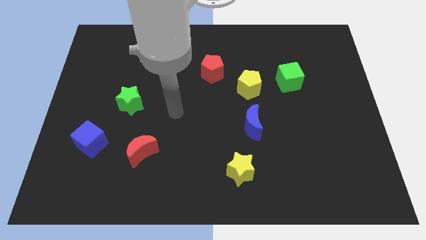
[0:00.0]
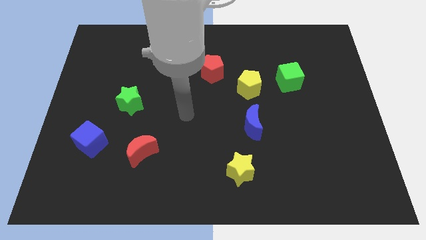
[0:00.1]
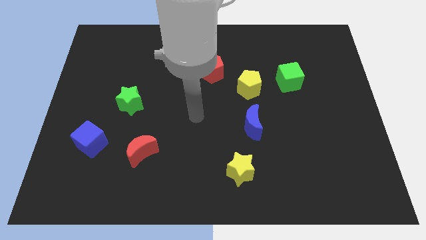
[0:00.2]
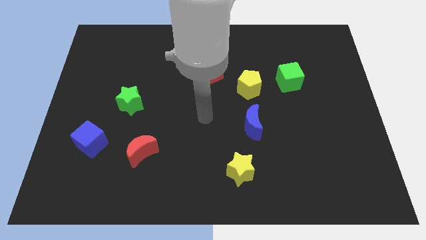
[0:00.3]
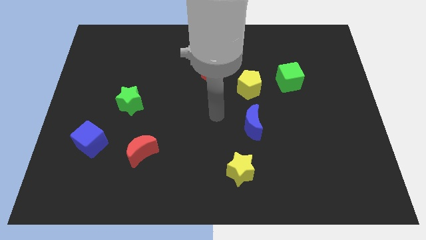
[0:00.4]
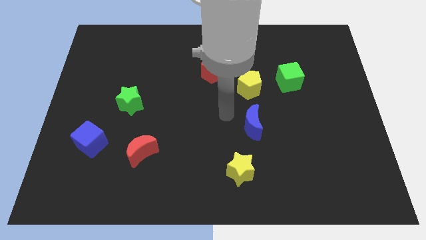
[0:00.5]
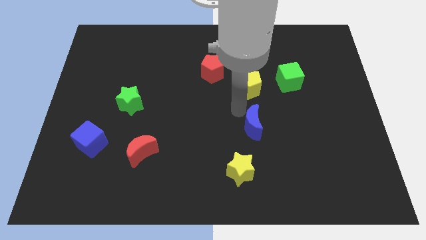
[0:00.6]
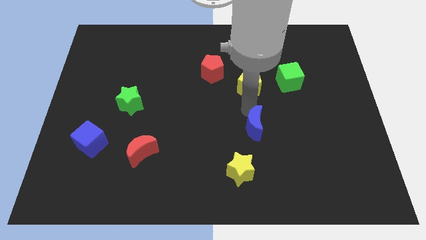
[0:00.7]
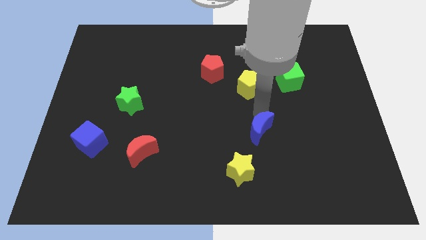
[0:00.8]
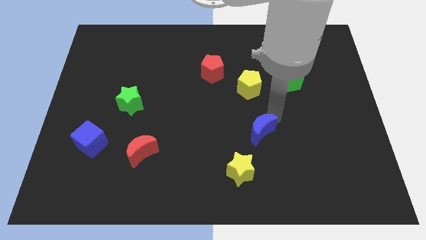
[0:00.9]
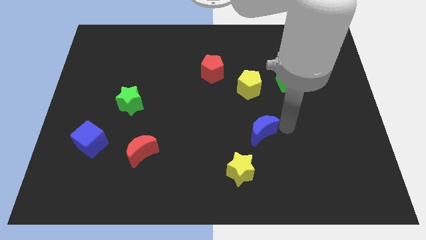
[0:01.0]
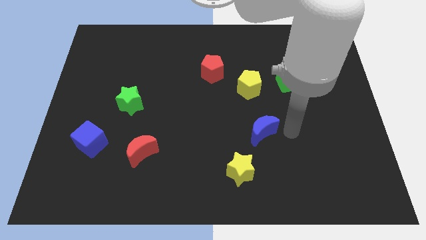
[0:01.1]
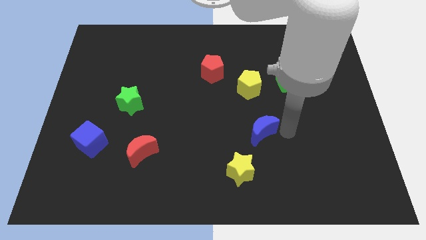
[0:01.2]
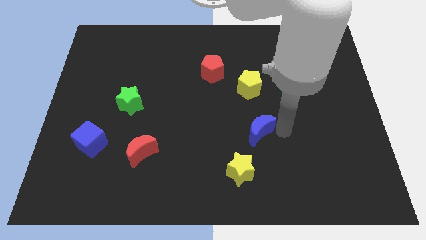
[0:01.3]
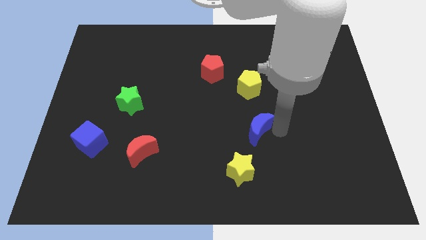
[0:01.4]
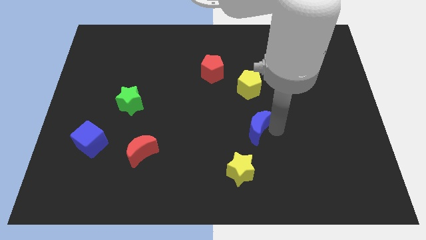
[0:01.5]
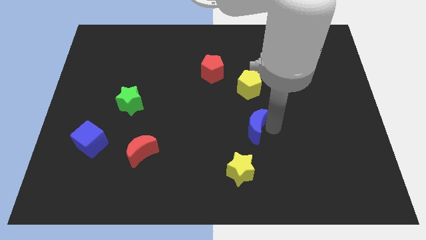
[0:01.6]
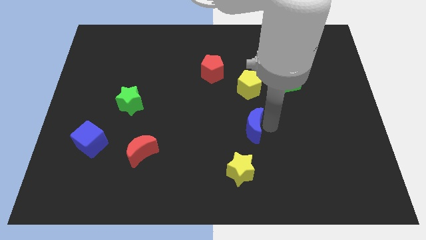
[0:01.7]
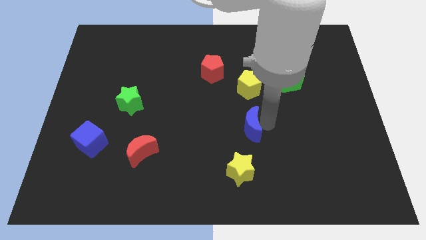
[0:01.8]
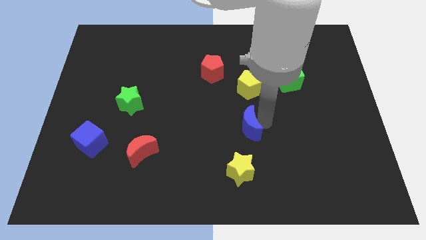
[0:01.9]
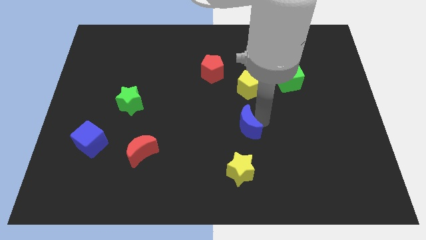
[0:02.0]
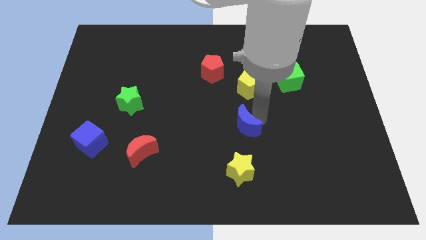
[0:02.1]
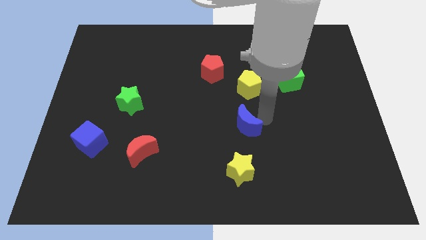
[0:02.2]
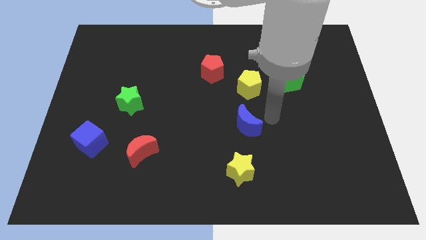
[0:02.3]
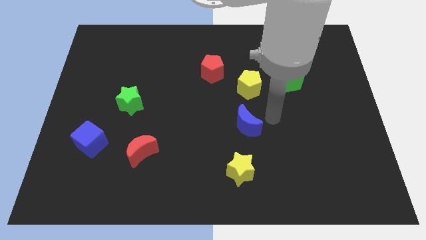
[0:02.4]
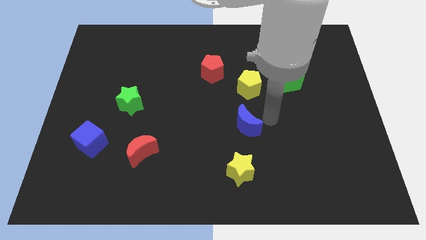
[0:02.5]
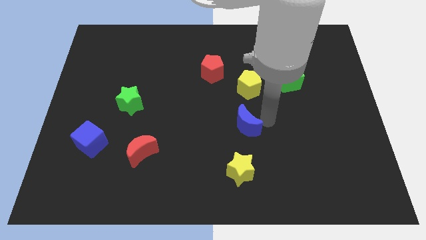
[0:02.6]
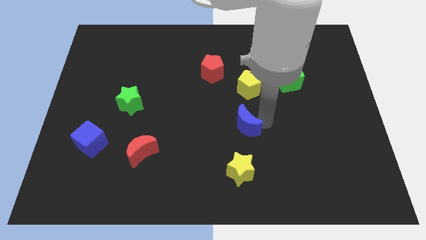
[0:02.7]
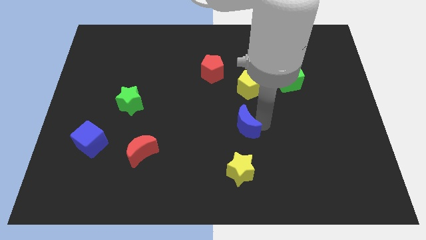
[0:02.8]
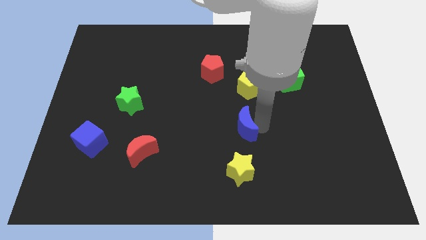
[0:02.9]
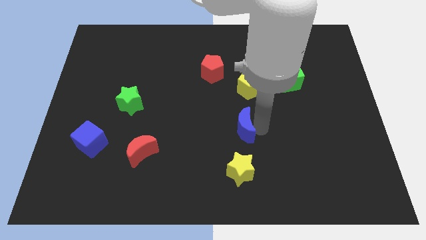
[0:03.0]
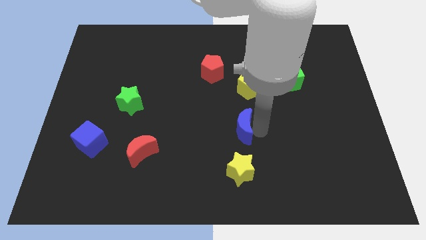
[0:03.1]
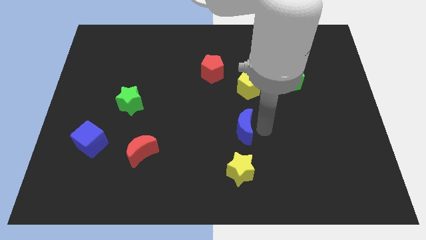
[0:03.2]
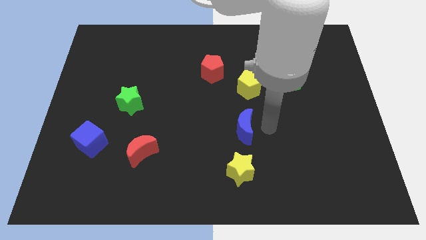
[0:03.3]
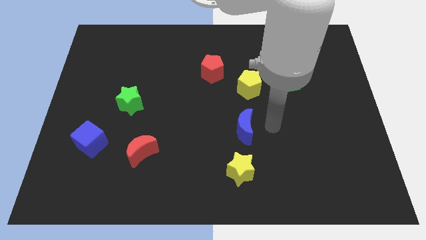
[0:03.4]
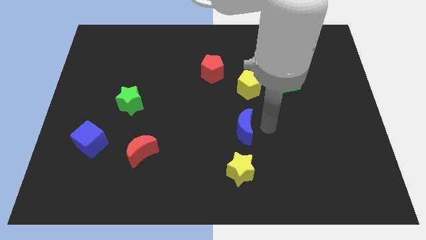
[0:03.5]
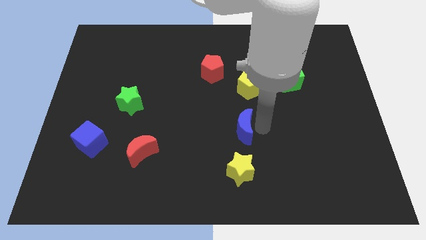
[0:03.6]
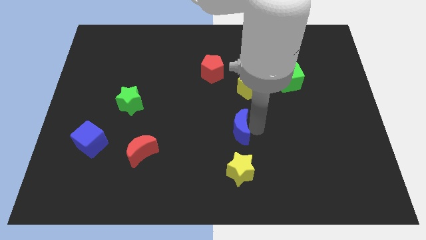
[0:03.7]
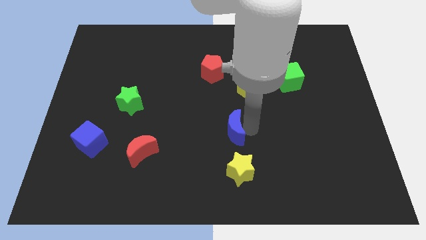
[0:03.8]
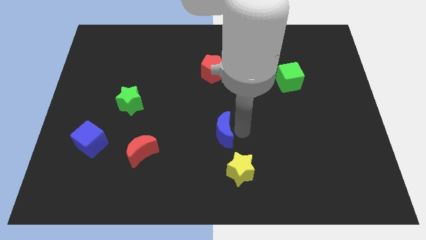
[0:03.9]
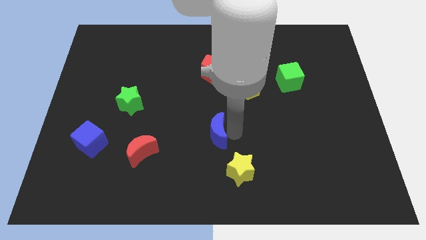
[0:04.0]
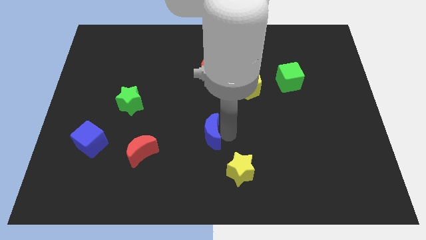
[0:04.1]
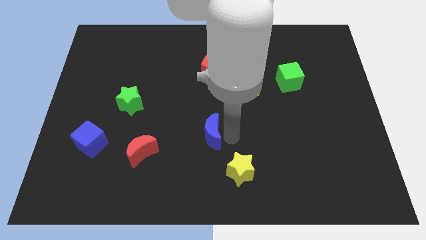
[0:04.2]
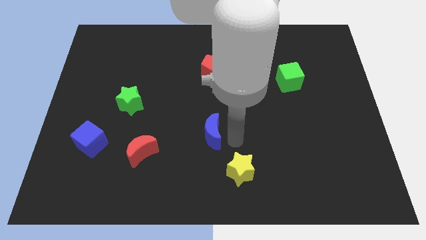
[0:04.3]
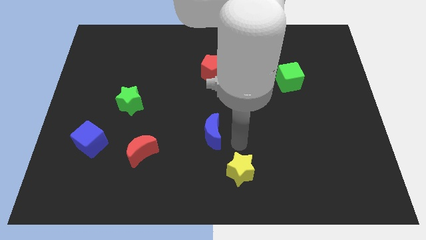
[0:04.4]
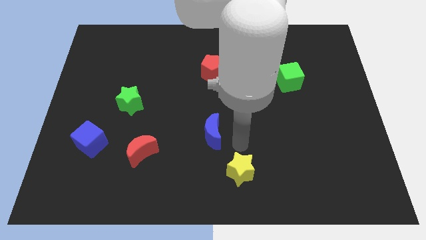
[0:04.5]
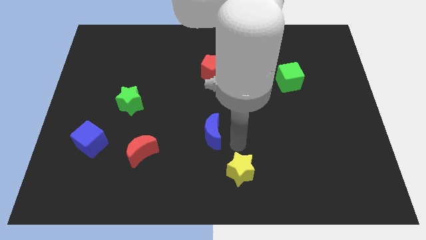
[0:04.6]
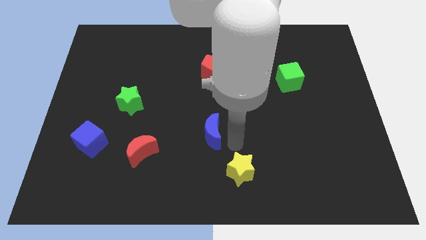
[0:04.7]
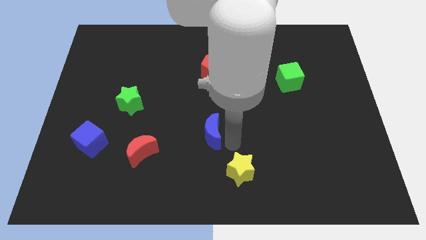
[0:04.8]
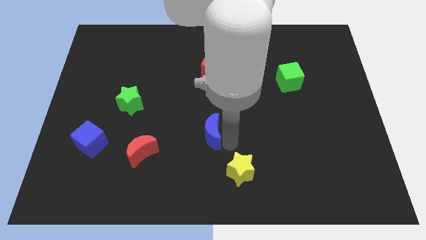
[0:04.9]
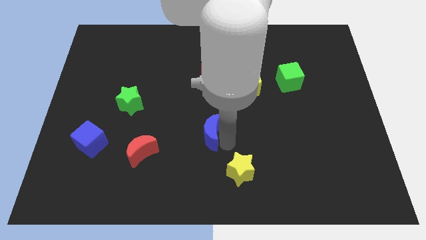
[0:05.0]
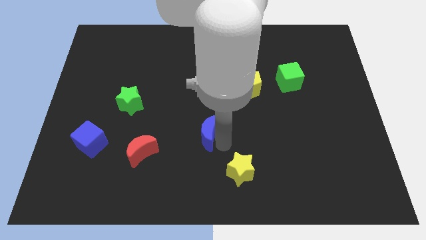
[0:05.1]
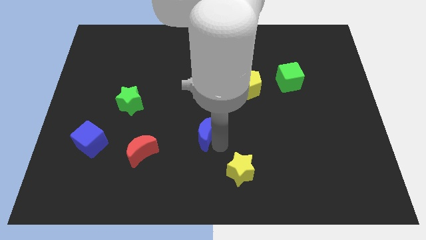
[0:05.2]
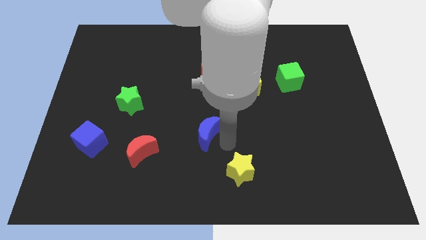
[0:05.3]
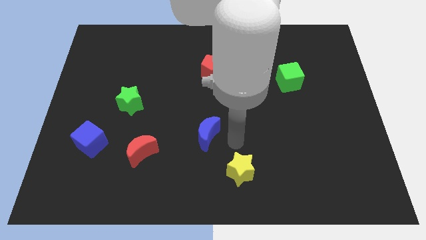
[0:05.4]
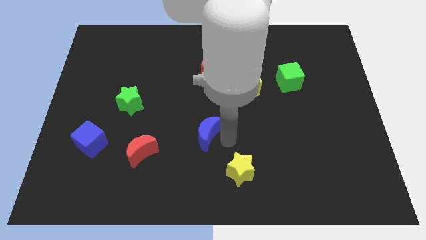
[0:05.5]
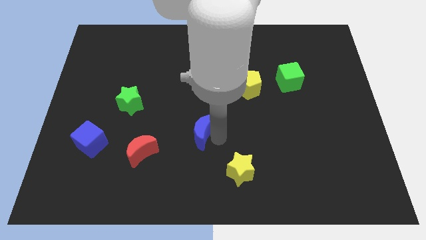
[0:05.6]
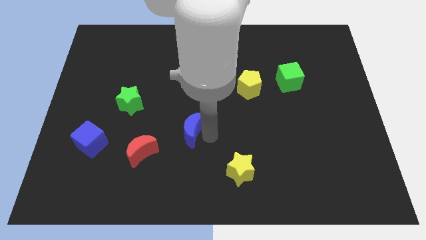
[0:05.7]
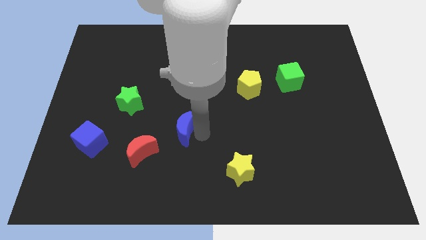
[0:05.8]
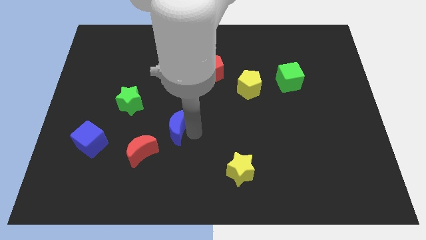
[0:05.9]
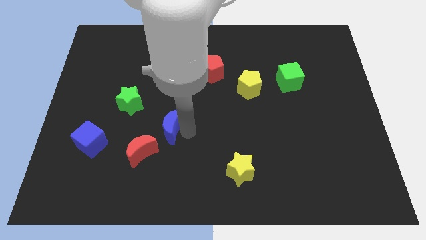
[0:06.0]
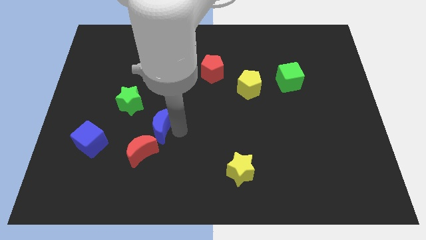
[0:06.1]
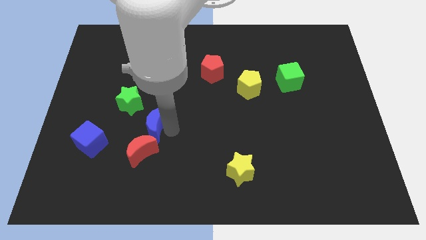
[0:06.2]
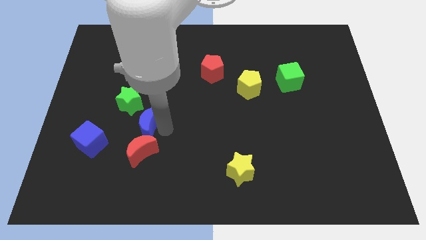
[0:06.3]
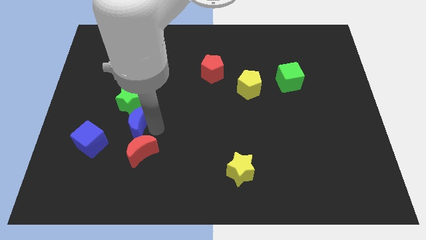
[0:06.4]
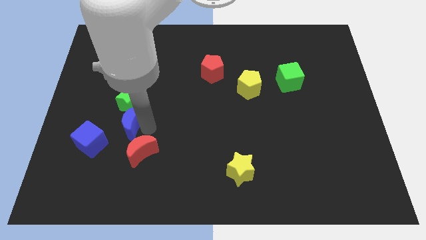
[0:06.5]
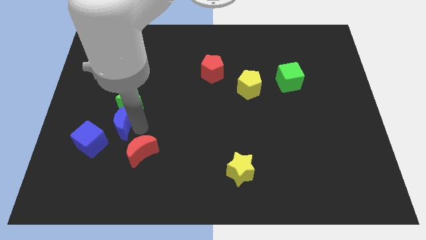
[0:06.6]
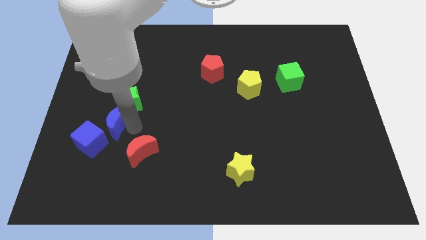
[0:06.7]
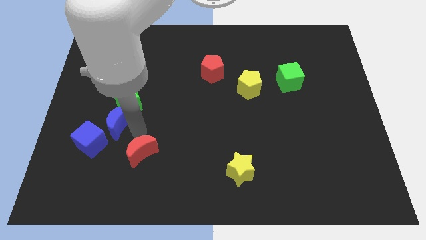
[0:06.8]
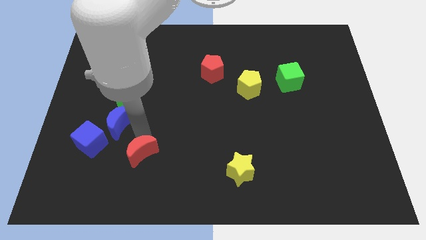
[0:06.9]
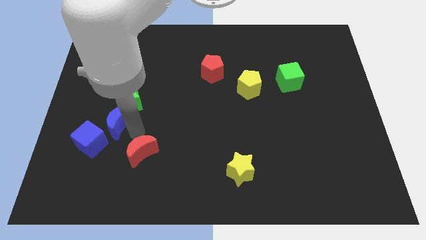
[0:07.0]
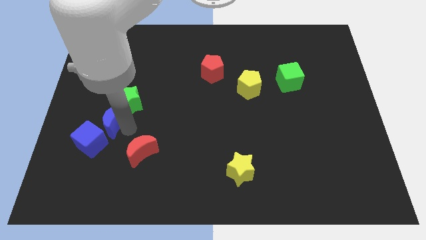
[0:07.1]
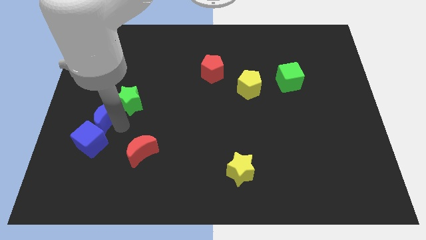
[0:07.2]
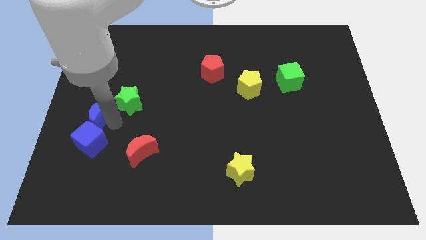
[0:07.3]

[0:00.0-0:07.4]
move the blue moon to the left side of the board
